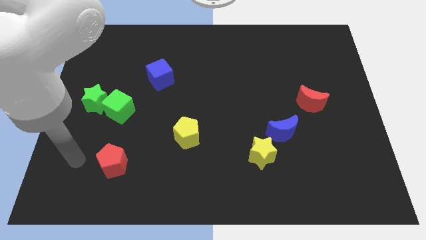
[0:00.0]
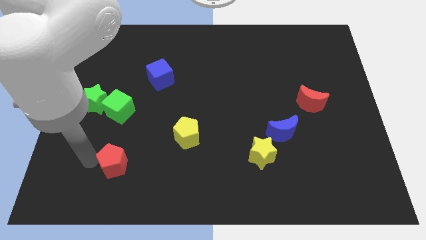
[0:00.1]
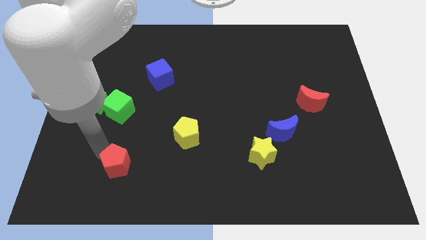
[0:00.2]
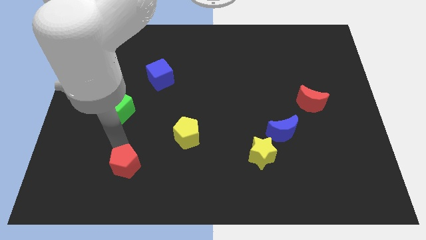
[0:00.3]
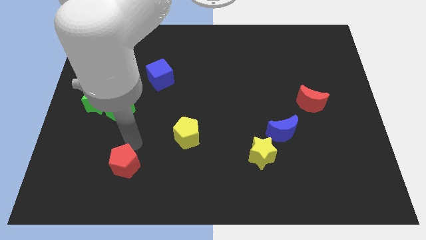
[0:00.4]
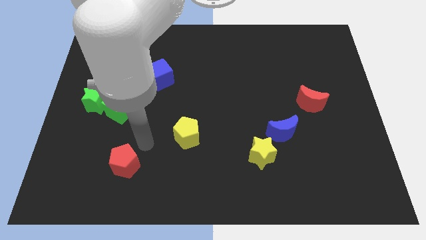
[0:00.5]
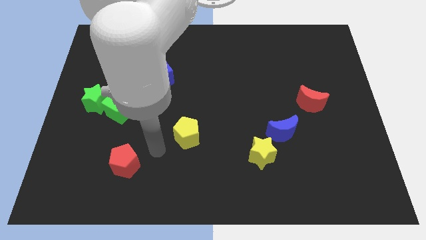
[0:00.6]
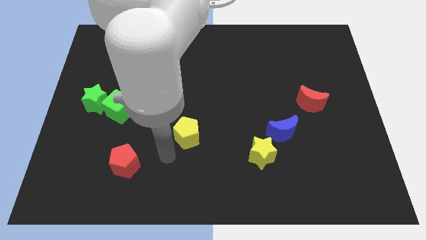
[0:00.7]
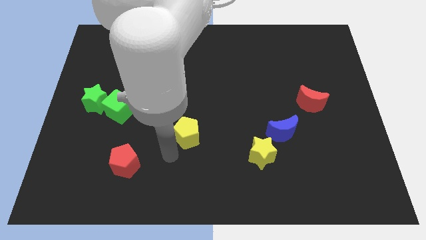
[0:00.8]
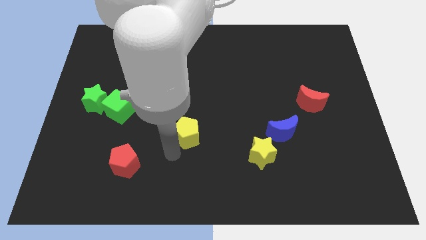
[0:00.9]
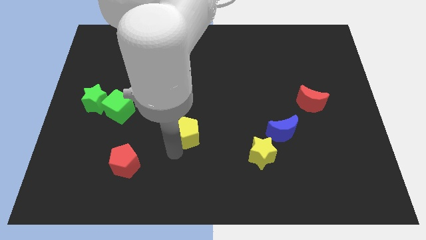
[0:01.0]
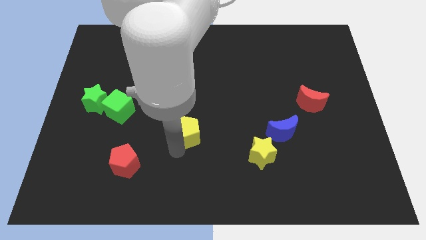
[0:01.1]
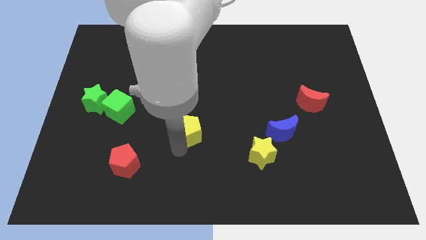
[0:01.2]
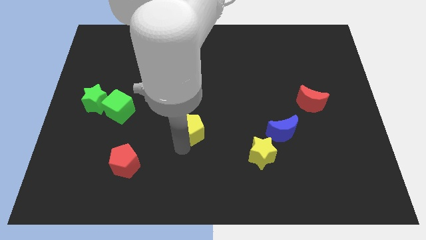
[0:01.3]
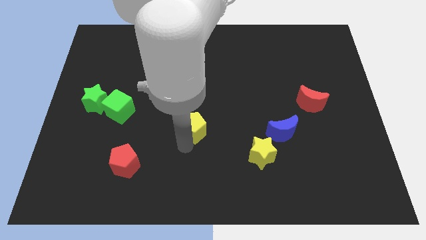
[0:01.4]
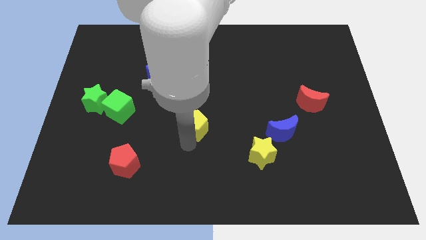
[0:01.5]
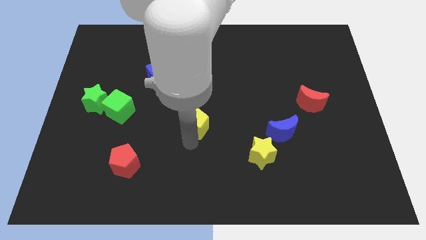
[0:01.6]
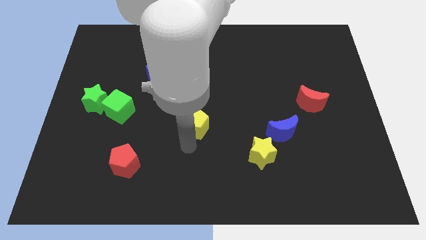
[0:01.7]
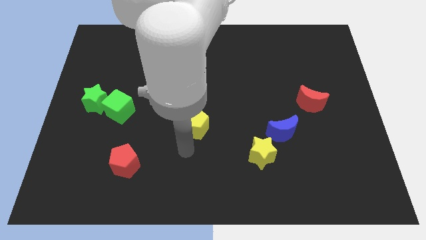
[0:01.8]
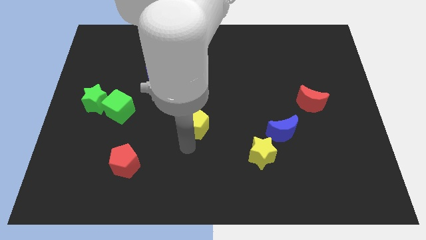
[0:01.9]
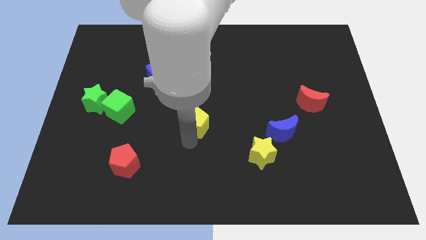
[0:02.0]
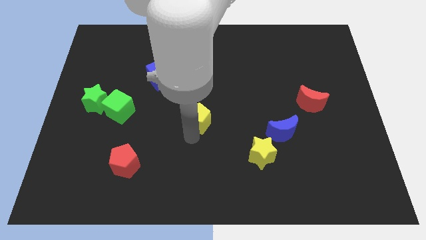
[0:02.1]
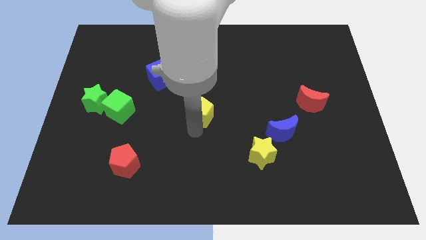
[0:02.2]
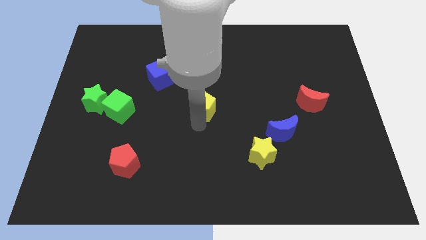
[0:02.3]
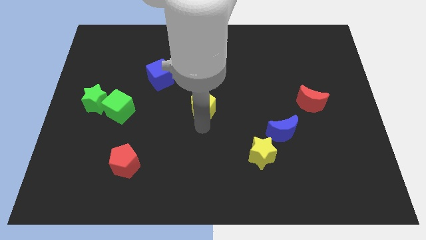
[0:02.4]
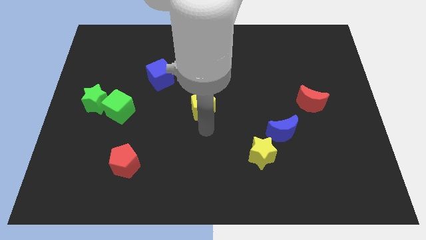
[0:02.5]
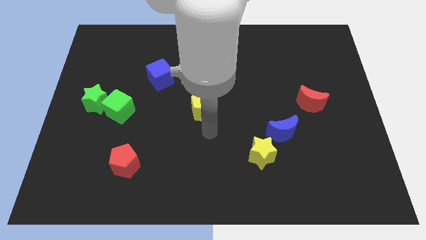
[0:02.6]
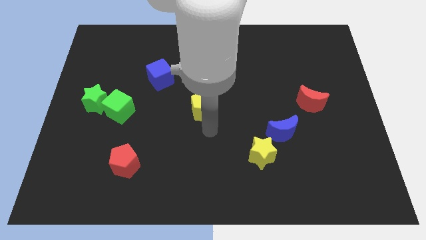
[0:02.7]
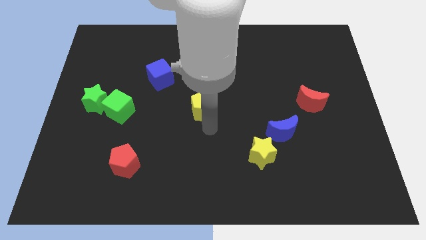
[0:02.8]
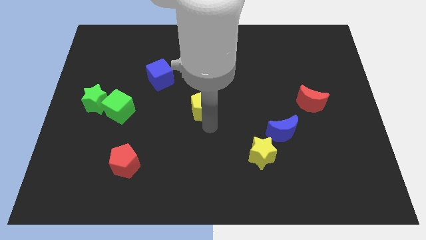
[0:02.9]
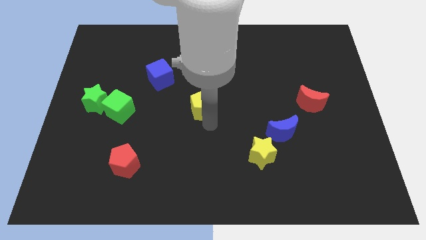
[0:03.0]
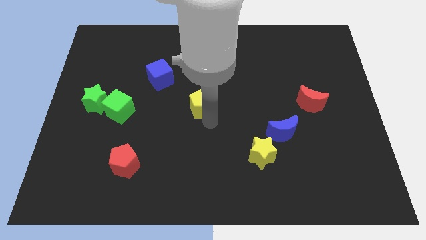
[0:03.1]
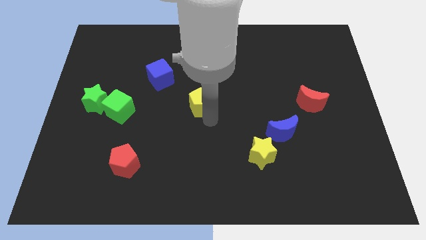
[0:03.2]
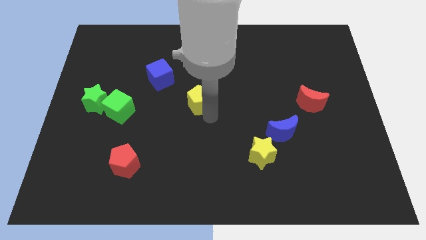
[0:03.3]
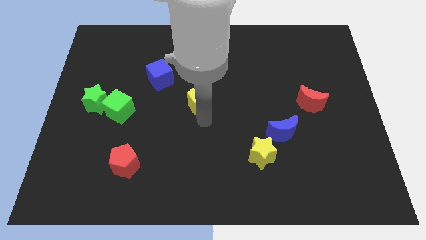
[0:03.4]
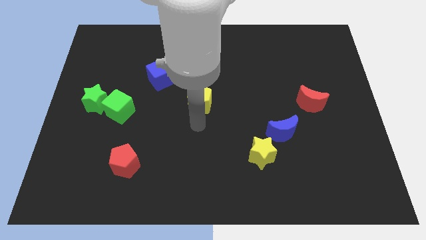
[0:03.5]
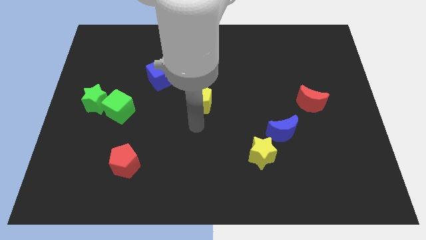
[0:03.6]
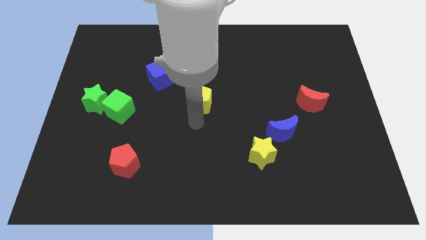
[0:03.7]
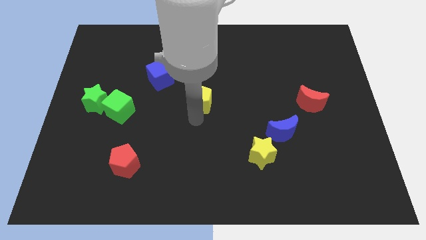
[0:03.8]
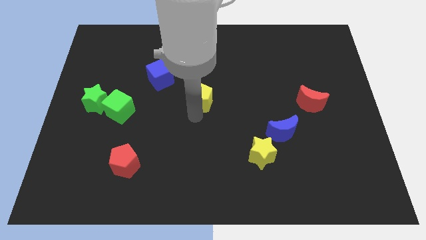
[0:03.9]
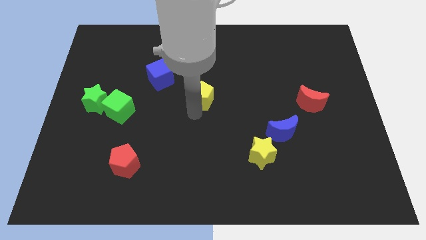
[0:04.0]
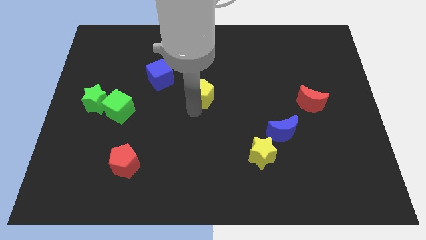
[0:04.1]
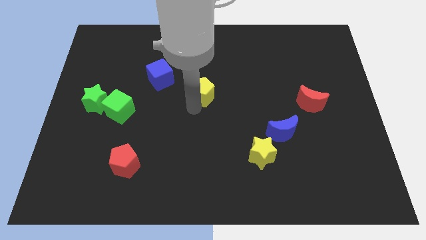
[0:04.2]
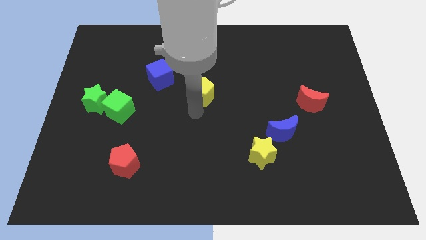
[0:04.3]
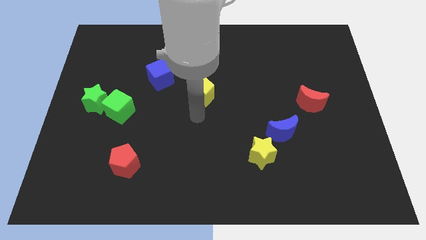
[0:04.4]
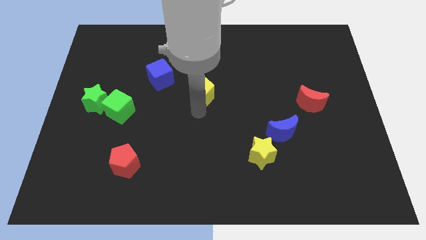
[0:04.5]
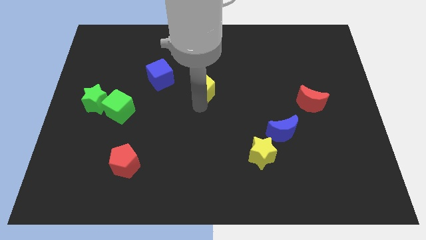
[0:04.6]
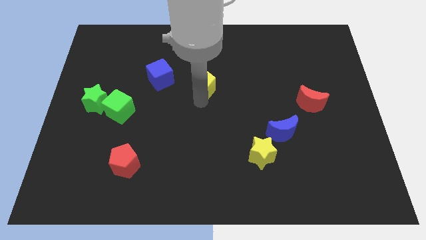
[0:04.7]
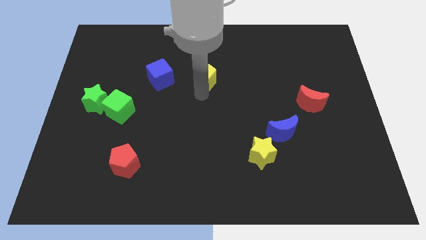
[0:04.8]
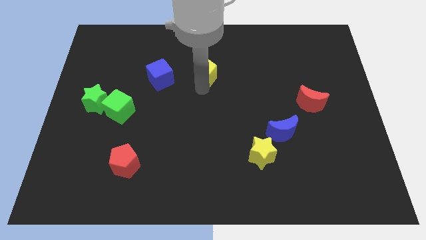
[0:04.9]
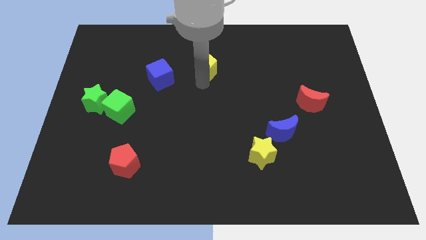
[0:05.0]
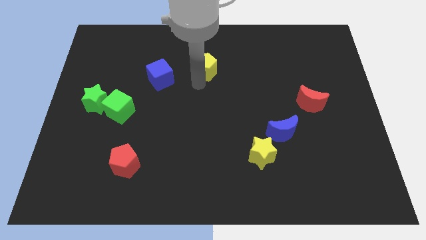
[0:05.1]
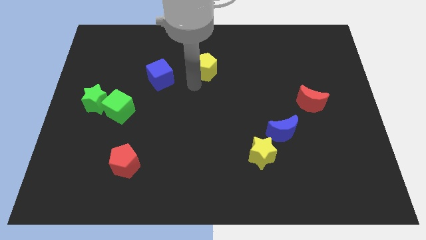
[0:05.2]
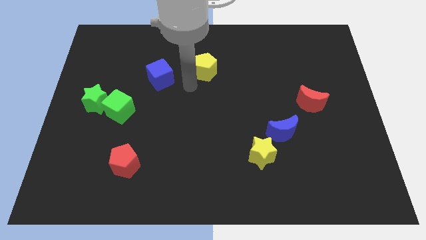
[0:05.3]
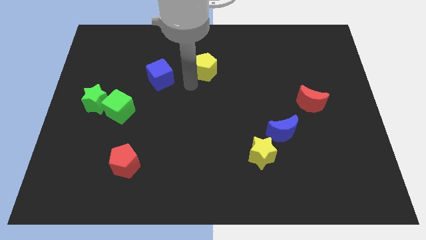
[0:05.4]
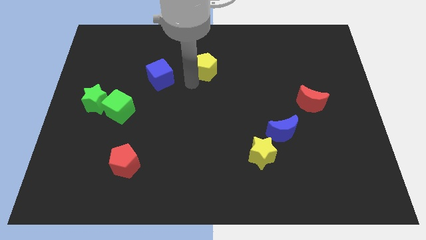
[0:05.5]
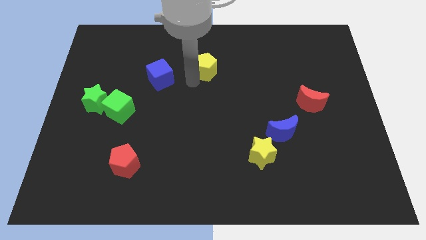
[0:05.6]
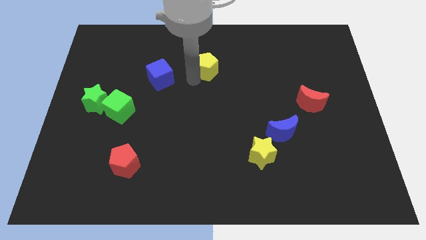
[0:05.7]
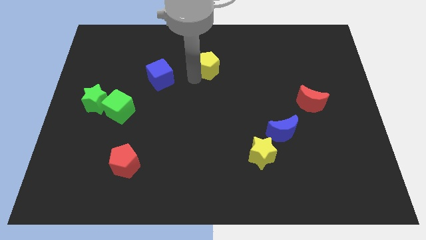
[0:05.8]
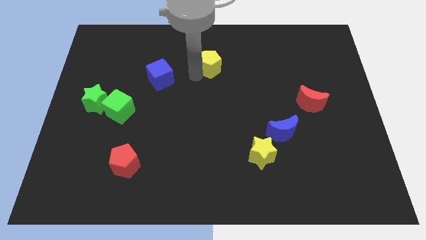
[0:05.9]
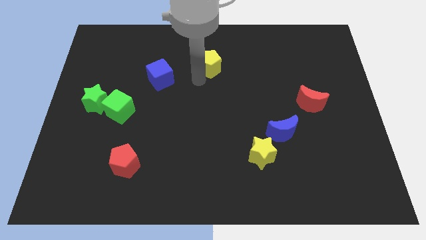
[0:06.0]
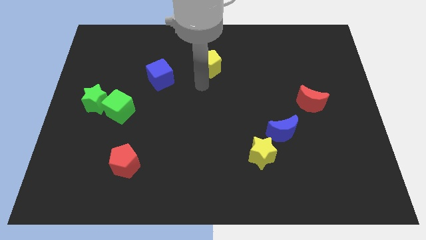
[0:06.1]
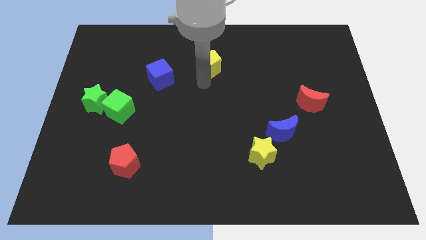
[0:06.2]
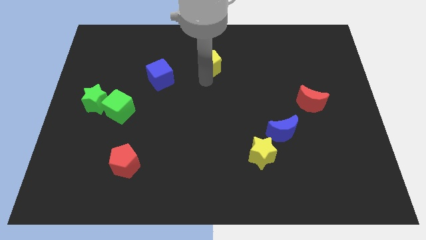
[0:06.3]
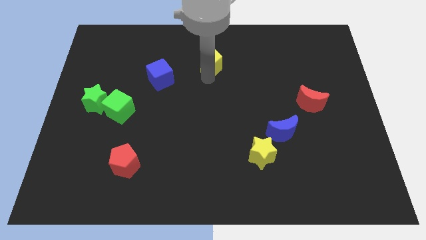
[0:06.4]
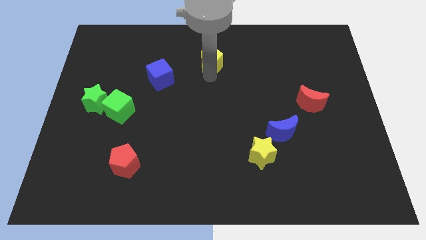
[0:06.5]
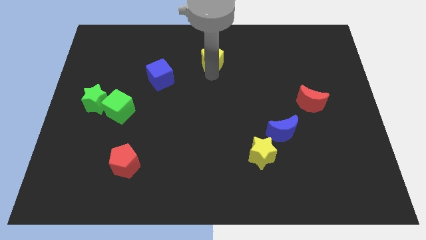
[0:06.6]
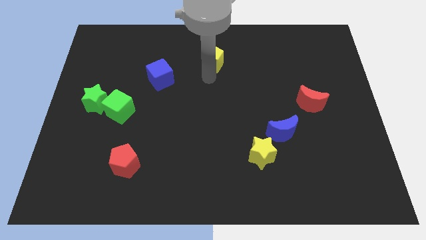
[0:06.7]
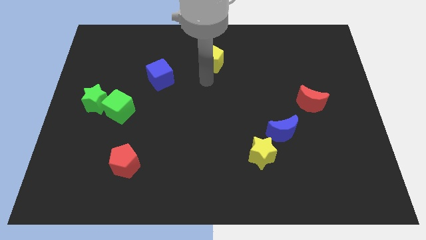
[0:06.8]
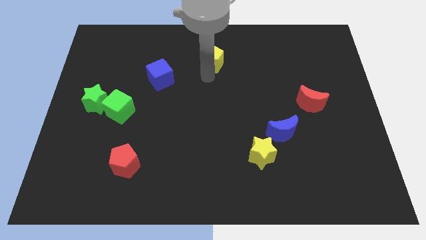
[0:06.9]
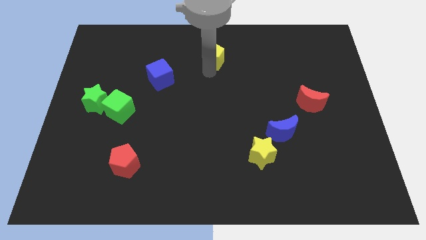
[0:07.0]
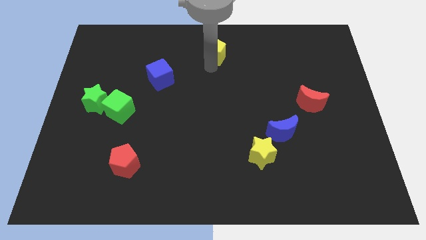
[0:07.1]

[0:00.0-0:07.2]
move the yellow pentagon to the top

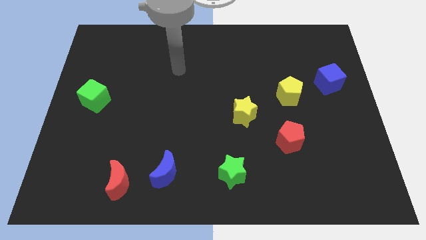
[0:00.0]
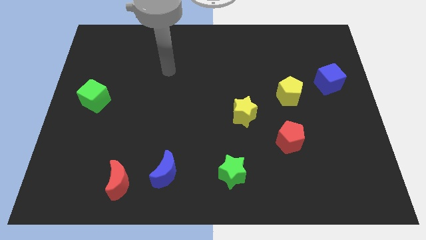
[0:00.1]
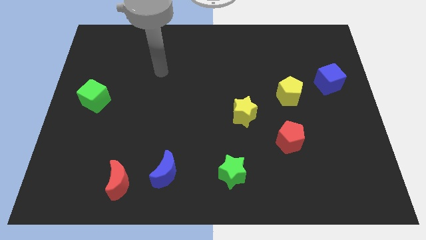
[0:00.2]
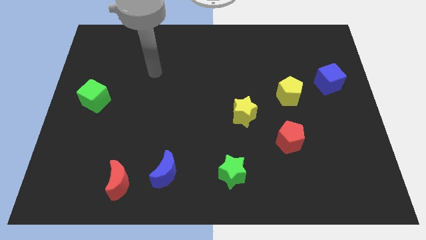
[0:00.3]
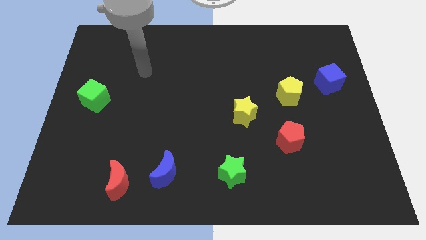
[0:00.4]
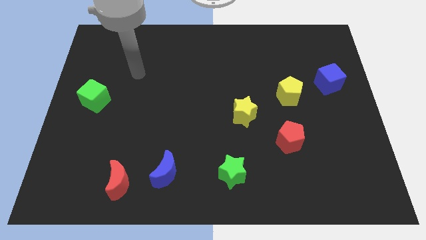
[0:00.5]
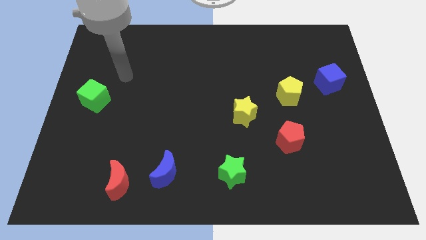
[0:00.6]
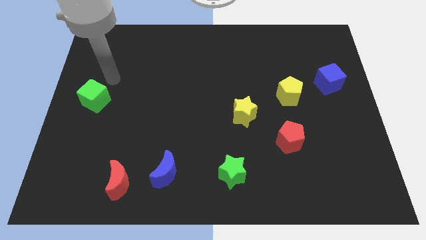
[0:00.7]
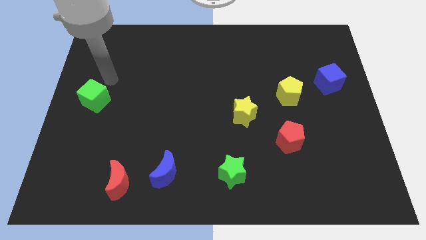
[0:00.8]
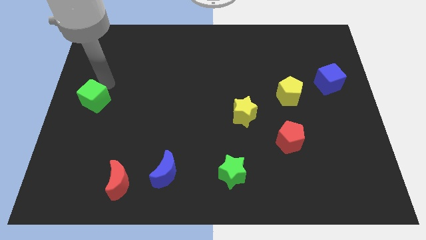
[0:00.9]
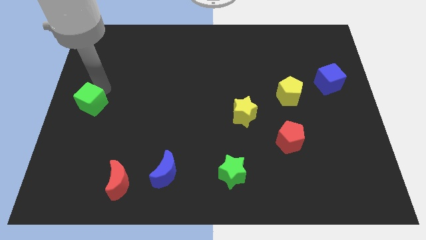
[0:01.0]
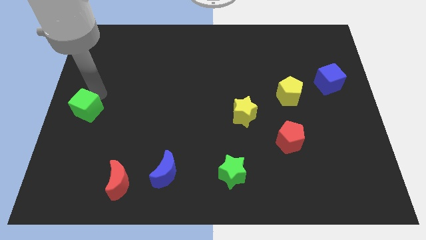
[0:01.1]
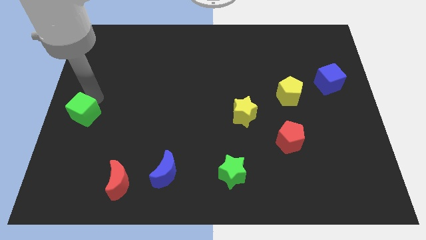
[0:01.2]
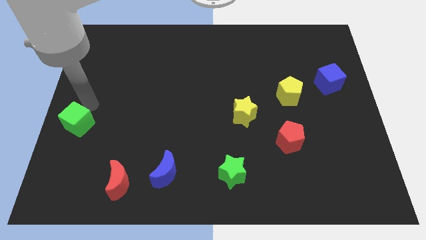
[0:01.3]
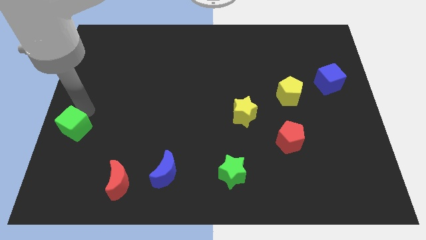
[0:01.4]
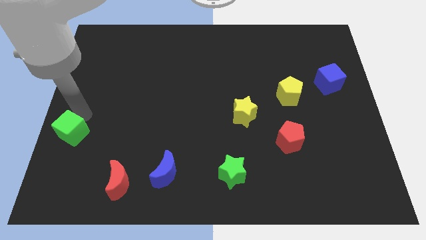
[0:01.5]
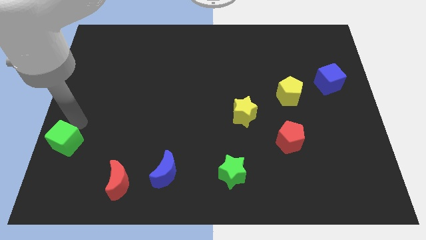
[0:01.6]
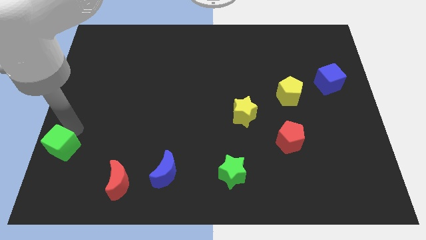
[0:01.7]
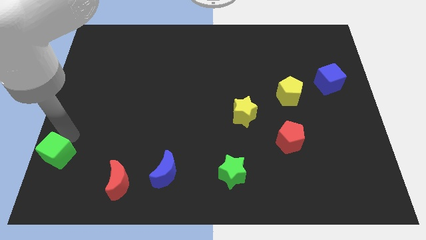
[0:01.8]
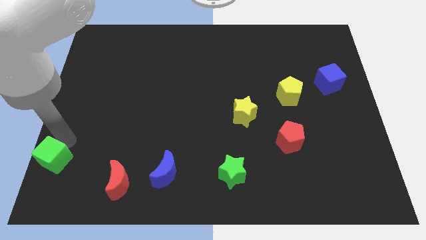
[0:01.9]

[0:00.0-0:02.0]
push the green cube to the lower left corner
